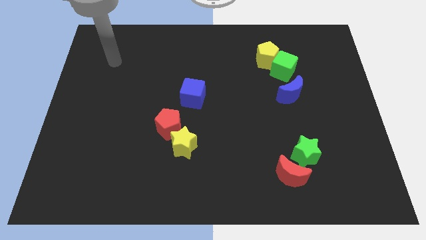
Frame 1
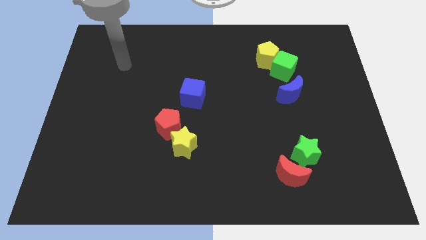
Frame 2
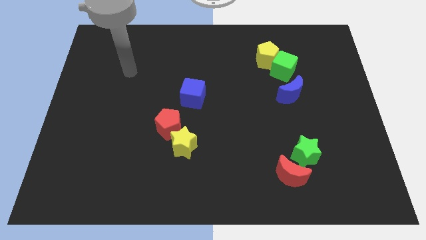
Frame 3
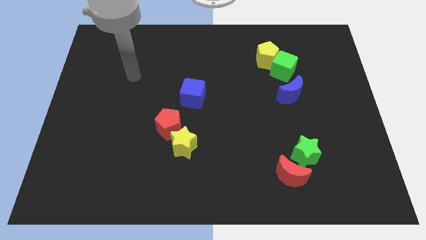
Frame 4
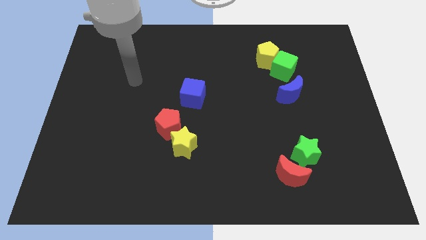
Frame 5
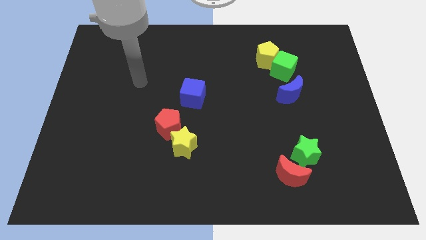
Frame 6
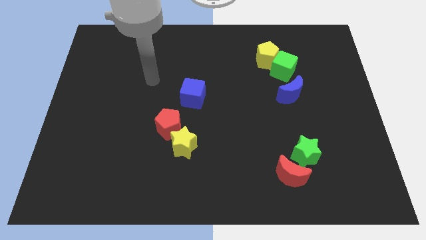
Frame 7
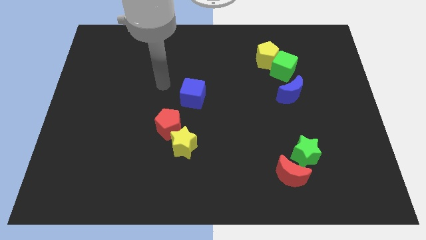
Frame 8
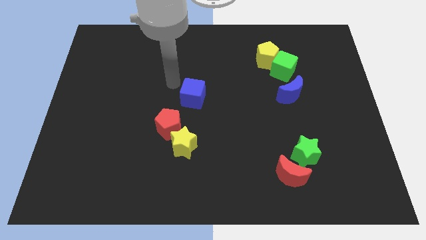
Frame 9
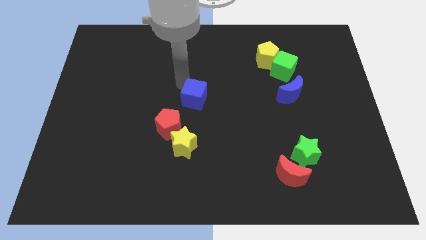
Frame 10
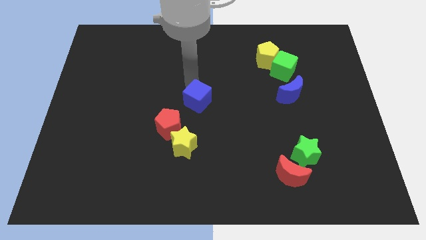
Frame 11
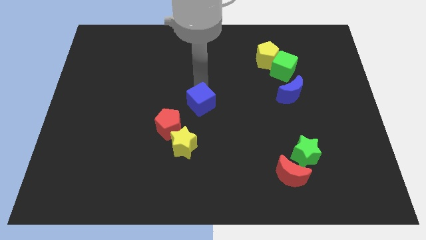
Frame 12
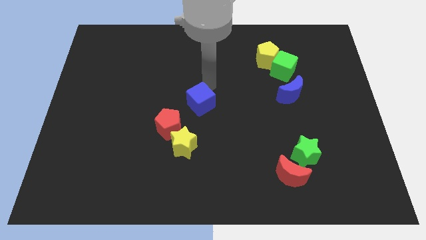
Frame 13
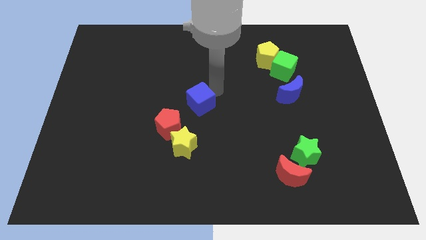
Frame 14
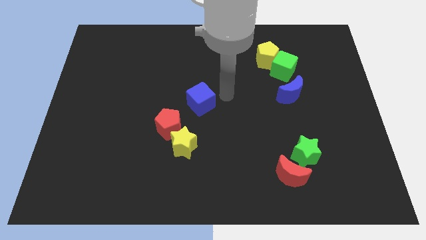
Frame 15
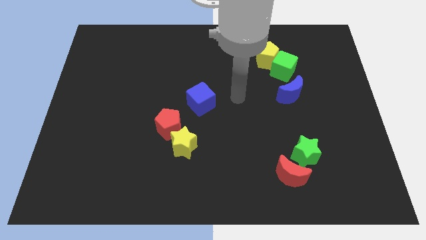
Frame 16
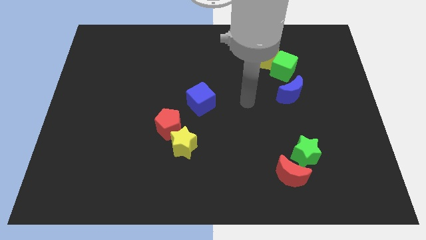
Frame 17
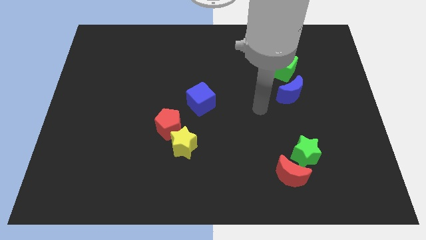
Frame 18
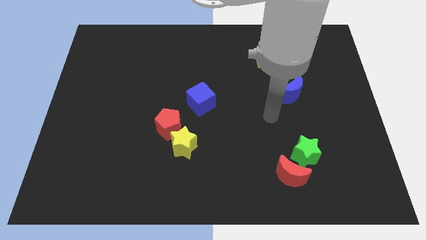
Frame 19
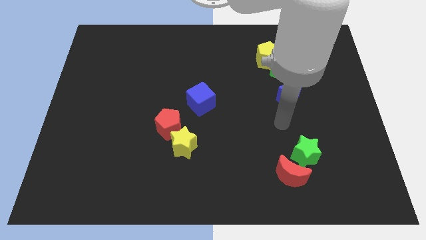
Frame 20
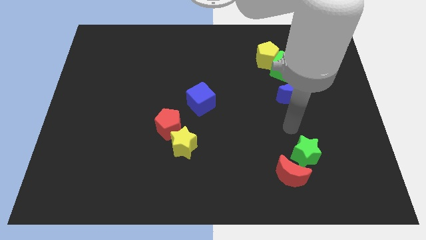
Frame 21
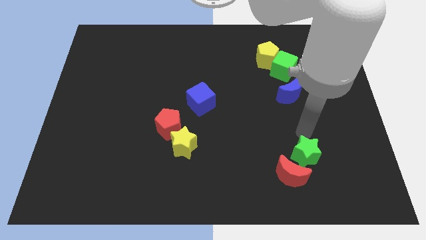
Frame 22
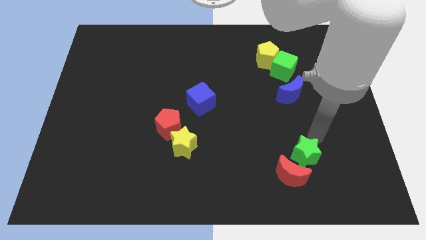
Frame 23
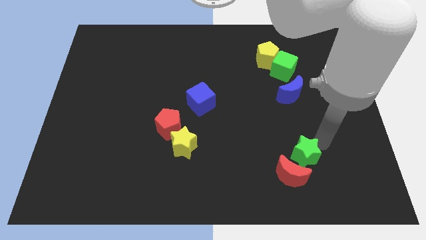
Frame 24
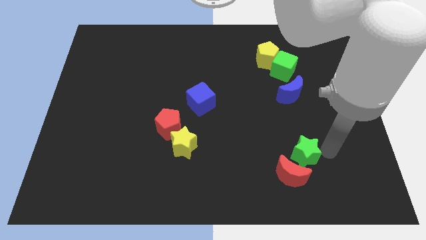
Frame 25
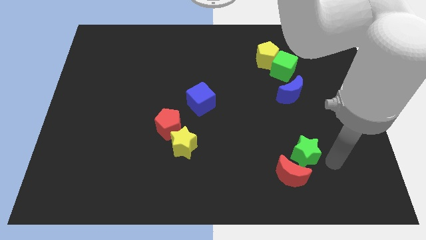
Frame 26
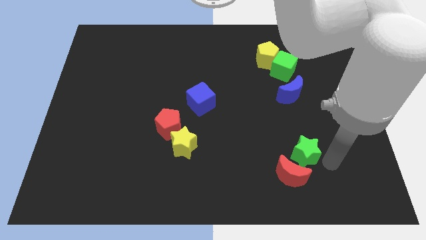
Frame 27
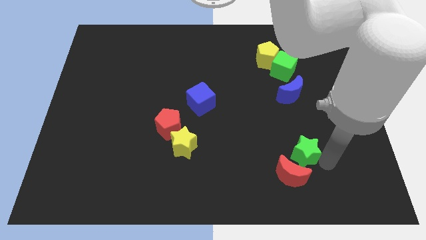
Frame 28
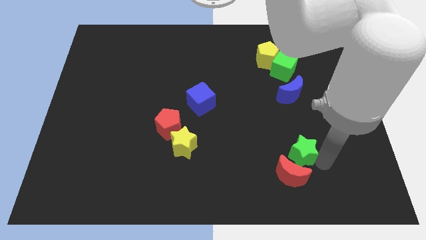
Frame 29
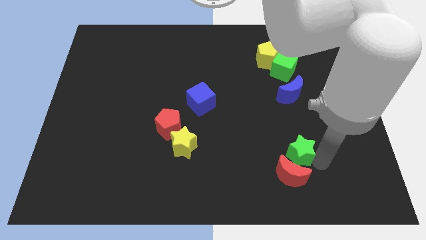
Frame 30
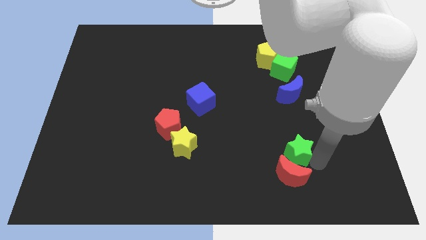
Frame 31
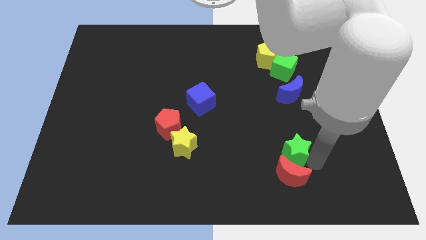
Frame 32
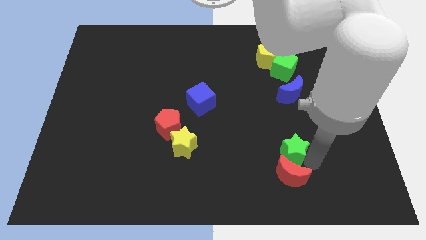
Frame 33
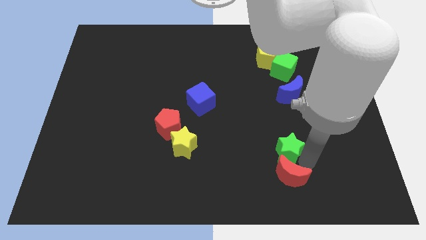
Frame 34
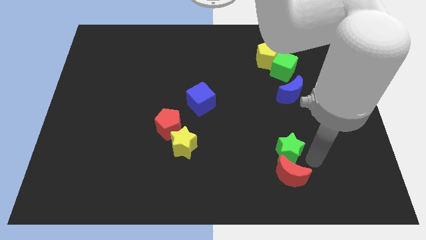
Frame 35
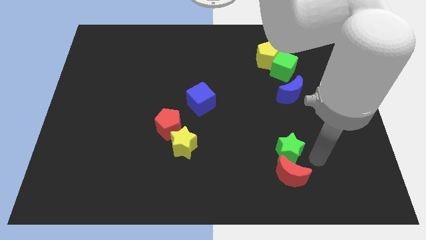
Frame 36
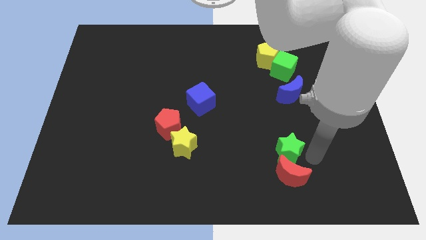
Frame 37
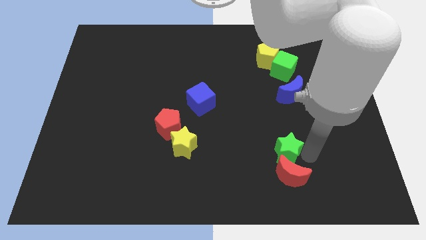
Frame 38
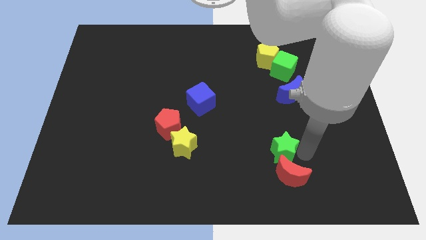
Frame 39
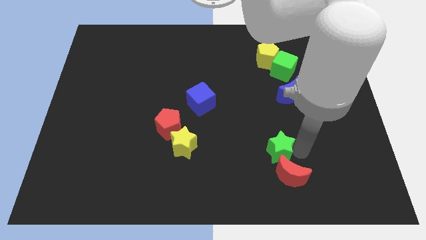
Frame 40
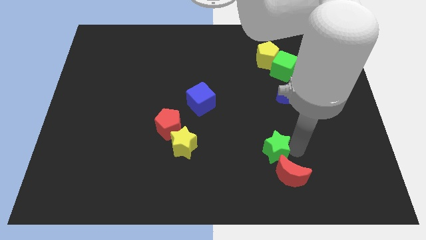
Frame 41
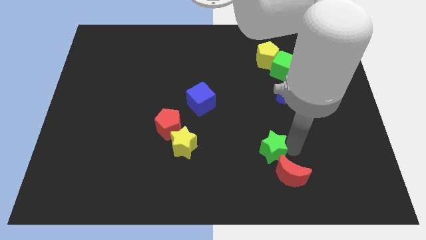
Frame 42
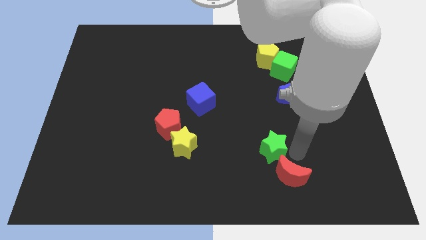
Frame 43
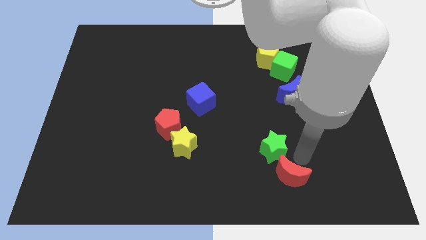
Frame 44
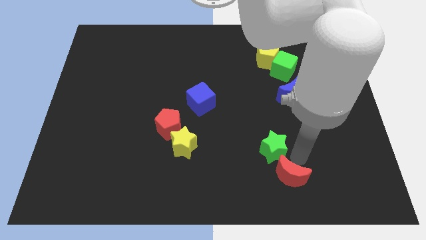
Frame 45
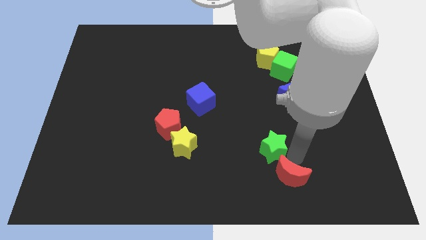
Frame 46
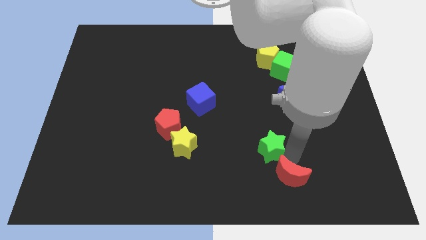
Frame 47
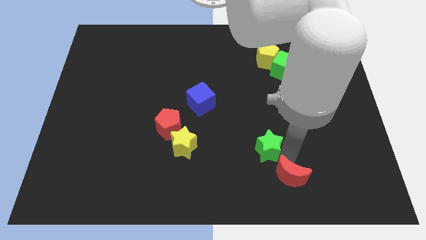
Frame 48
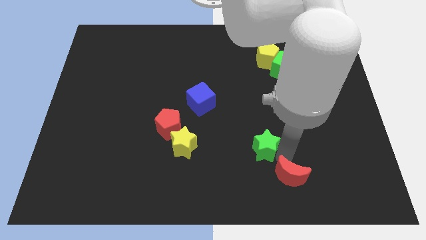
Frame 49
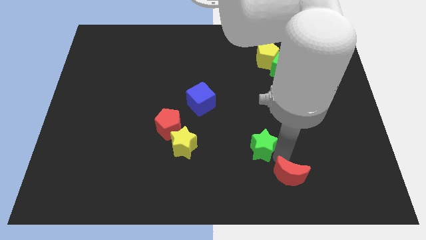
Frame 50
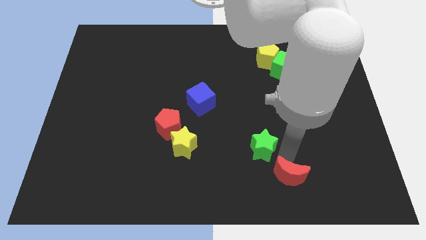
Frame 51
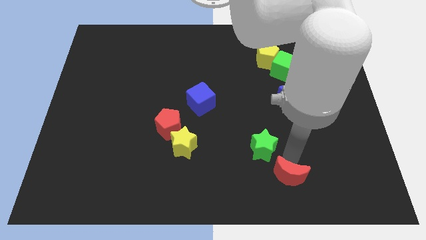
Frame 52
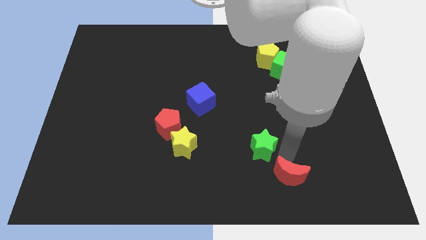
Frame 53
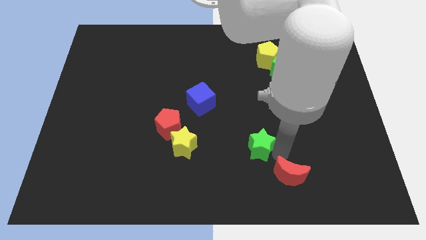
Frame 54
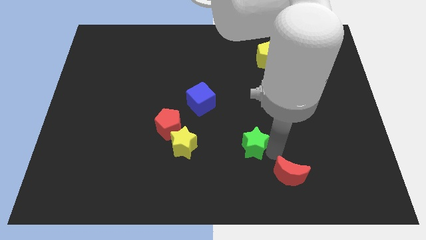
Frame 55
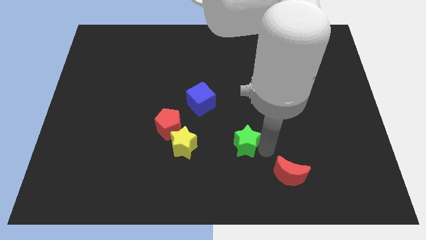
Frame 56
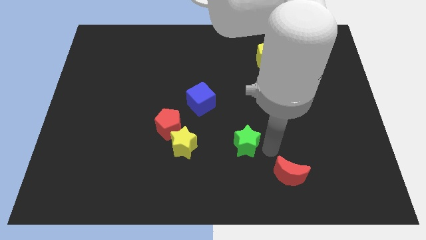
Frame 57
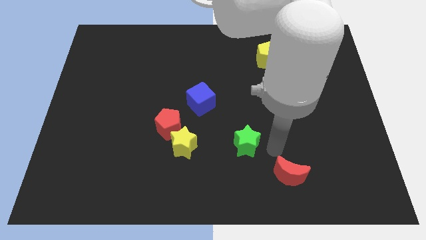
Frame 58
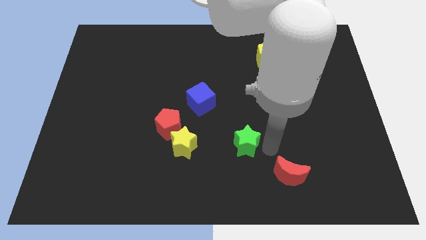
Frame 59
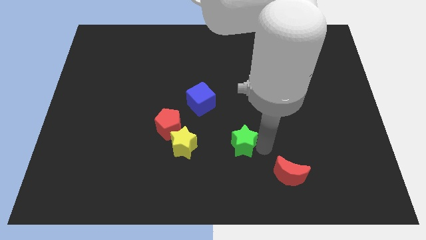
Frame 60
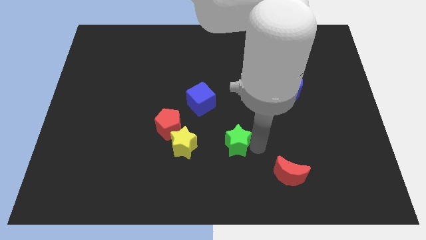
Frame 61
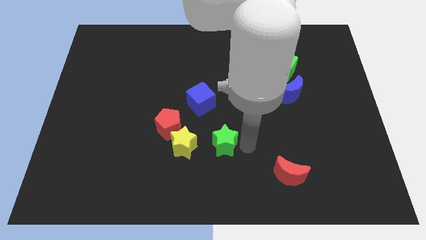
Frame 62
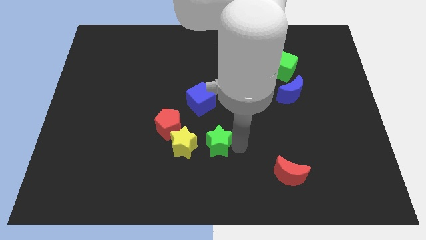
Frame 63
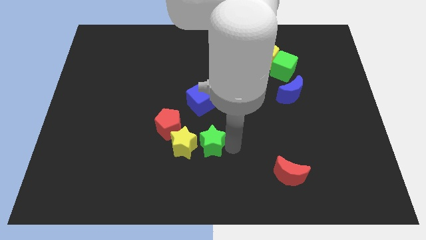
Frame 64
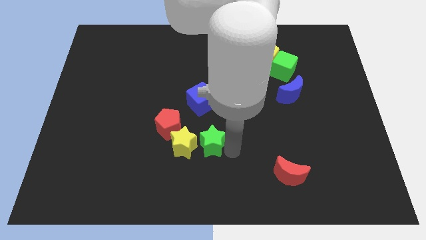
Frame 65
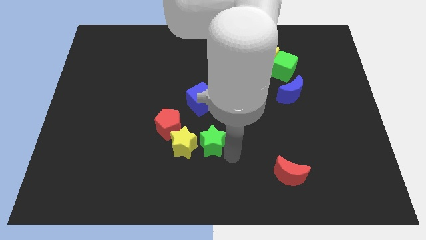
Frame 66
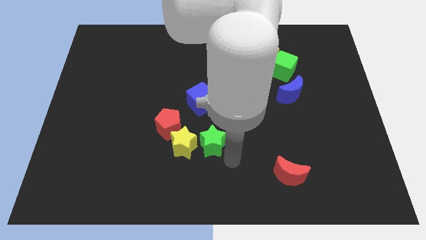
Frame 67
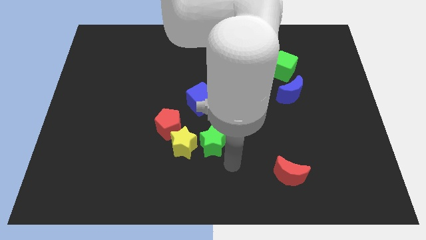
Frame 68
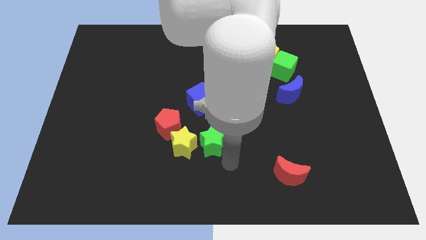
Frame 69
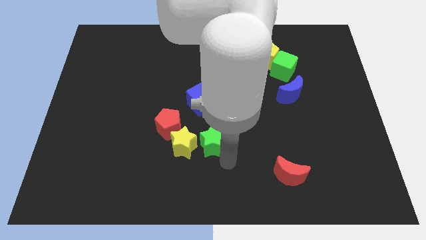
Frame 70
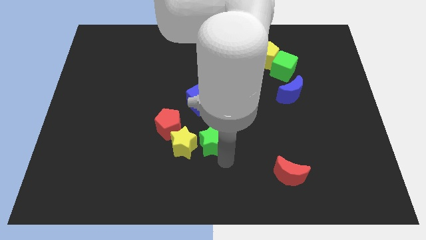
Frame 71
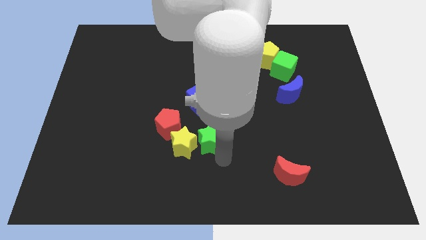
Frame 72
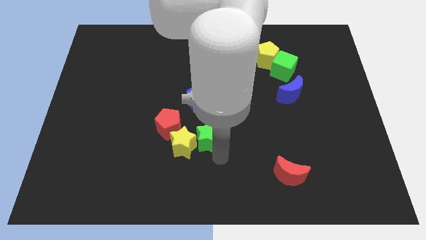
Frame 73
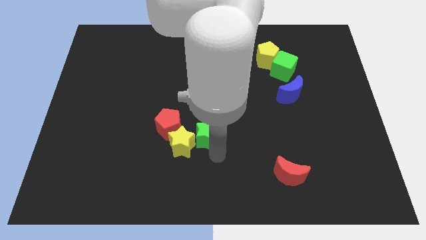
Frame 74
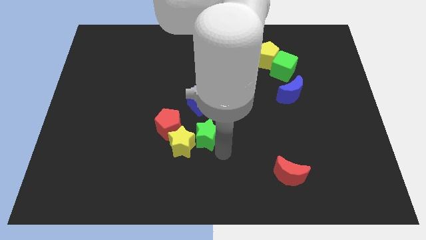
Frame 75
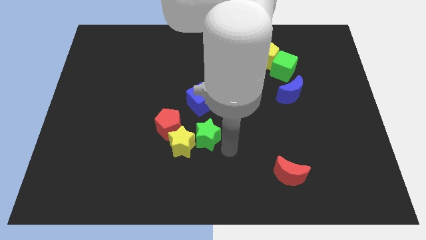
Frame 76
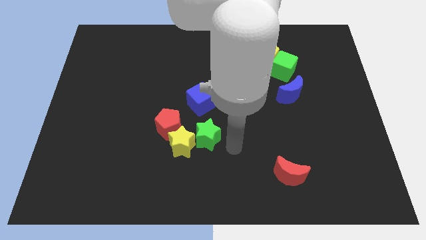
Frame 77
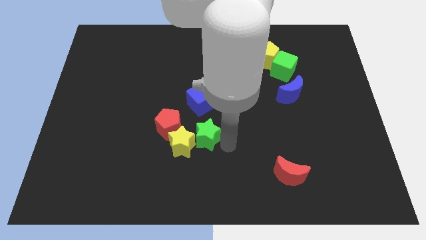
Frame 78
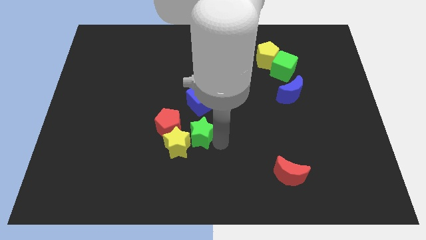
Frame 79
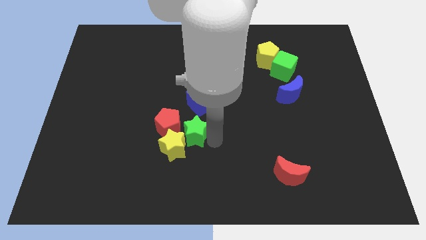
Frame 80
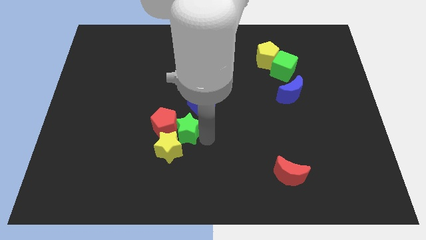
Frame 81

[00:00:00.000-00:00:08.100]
slide the green star towards the red pentagon
